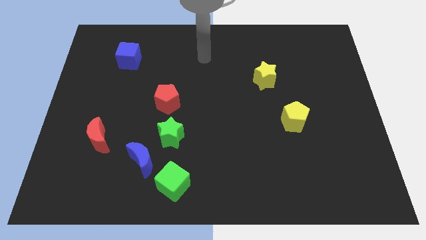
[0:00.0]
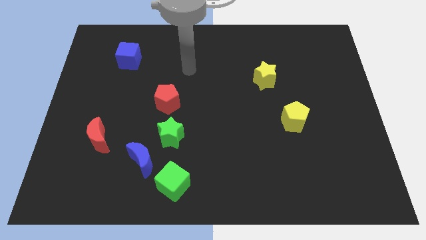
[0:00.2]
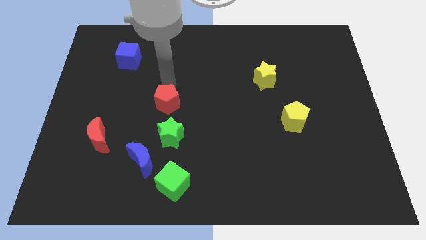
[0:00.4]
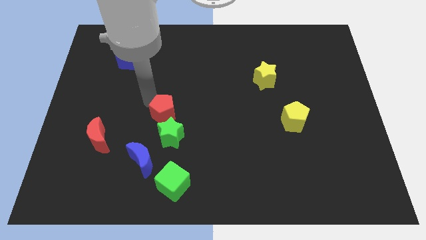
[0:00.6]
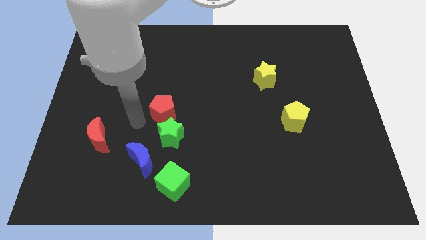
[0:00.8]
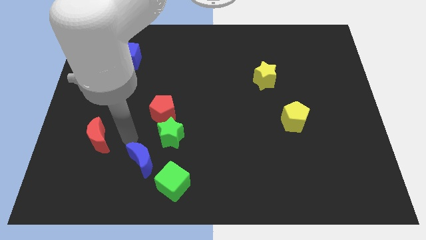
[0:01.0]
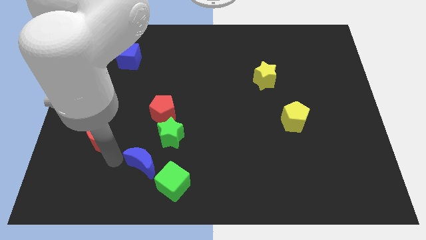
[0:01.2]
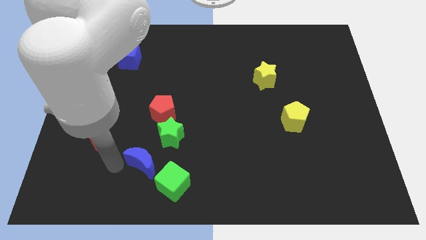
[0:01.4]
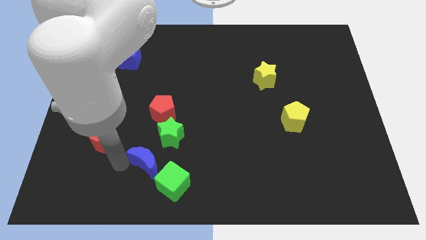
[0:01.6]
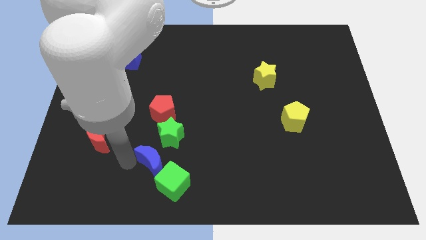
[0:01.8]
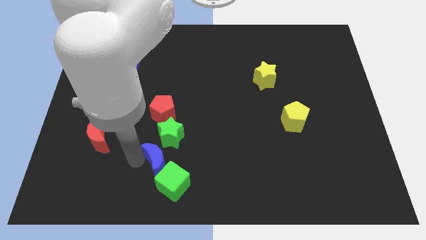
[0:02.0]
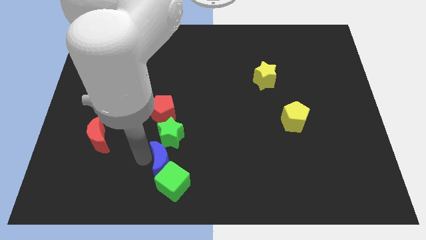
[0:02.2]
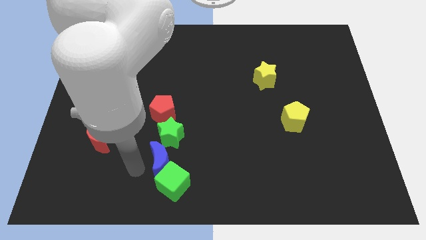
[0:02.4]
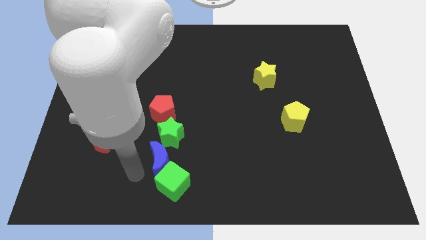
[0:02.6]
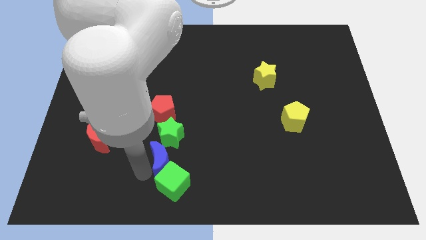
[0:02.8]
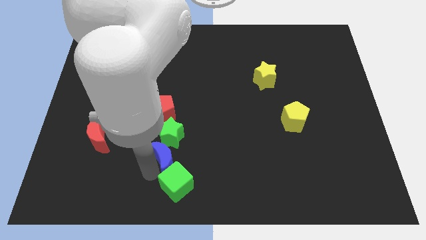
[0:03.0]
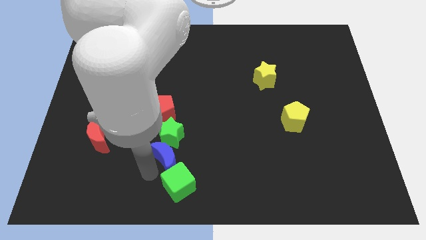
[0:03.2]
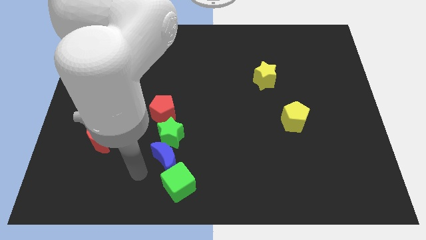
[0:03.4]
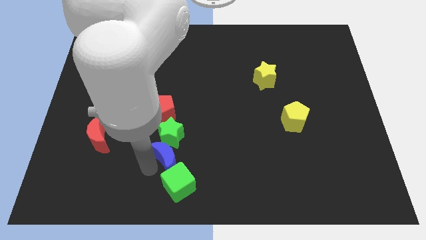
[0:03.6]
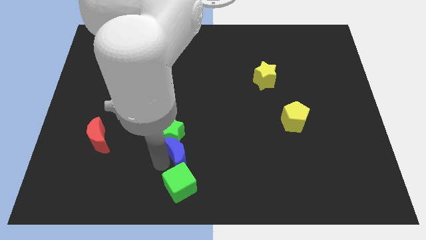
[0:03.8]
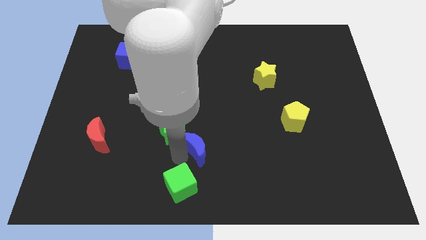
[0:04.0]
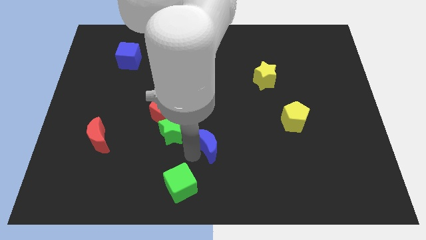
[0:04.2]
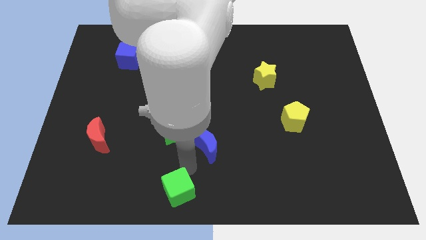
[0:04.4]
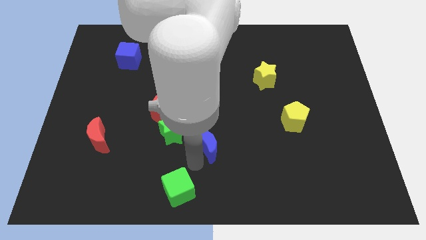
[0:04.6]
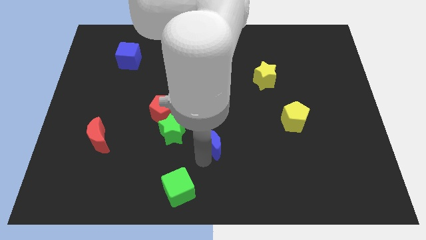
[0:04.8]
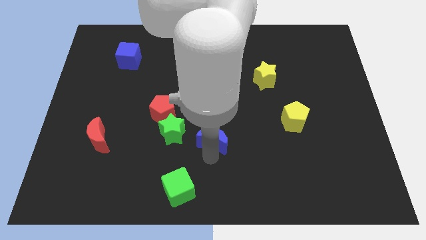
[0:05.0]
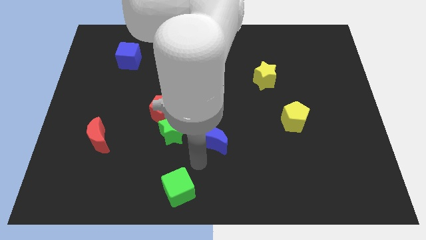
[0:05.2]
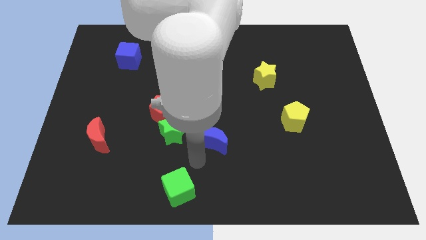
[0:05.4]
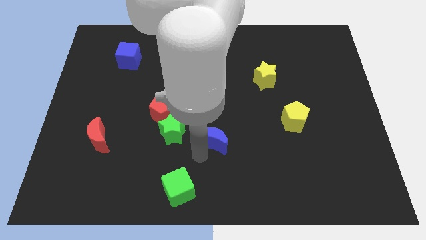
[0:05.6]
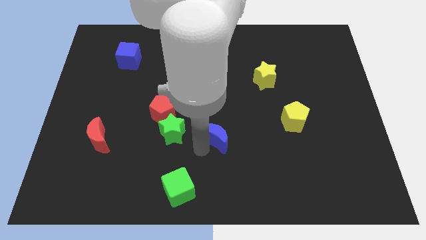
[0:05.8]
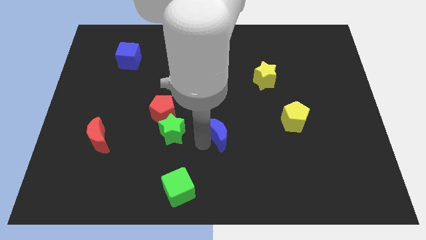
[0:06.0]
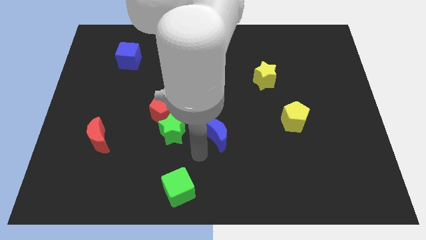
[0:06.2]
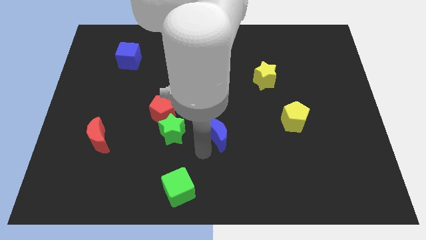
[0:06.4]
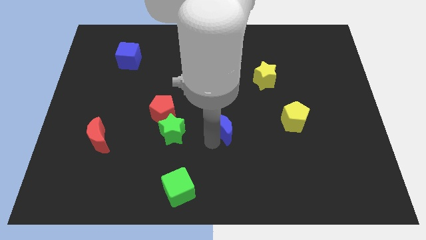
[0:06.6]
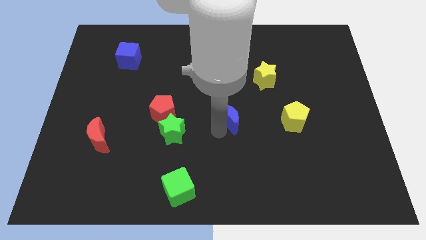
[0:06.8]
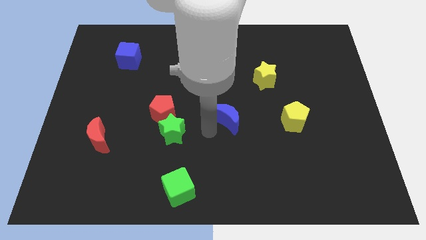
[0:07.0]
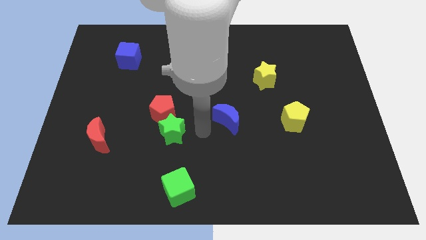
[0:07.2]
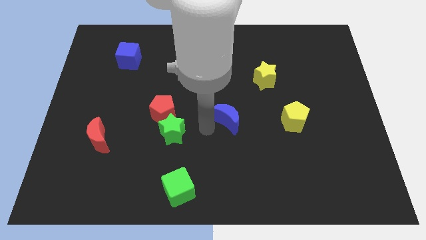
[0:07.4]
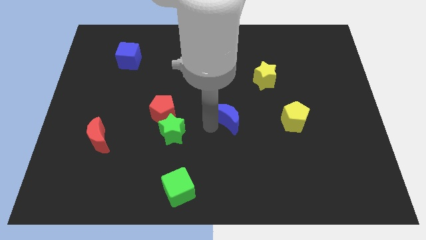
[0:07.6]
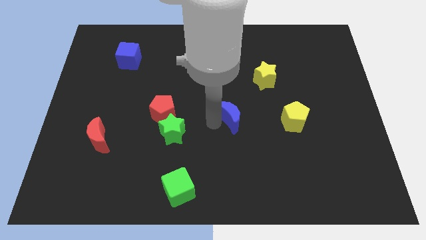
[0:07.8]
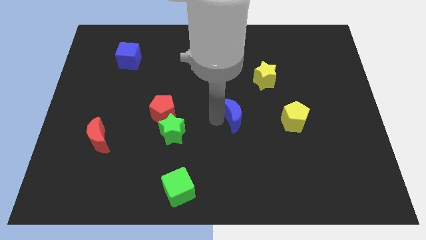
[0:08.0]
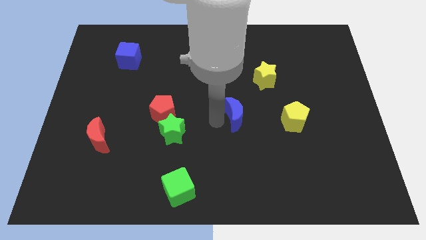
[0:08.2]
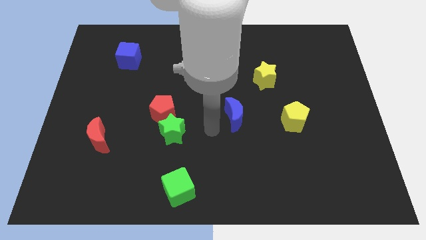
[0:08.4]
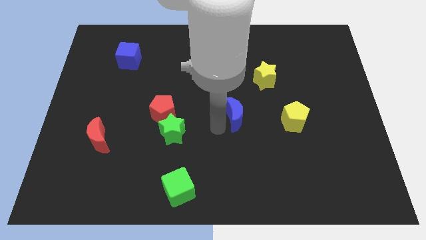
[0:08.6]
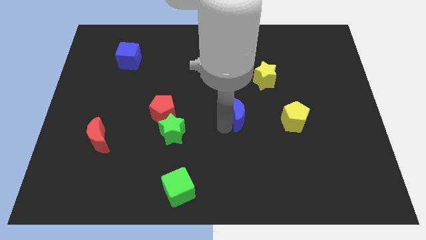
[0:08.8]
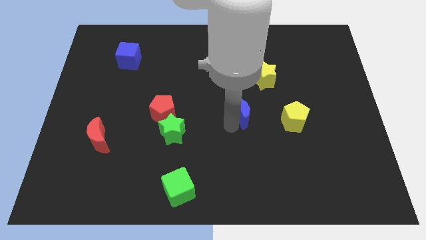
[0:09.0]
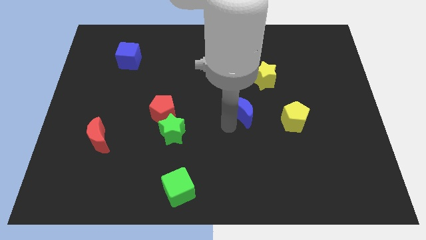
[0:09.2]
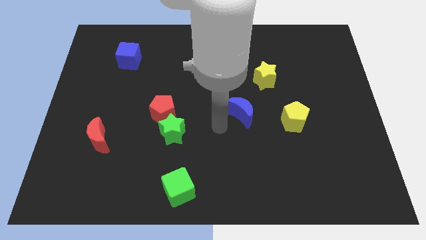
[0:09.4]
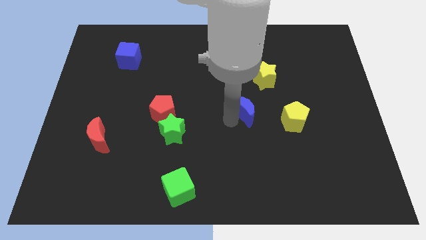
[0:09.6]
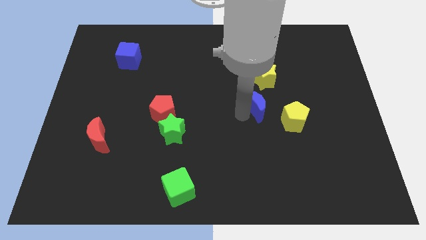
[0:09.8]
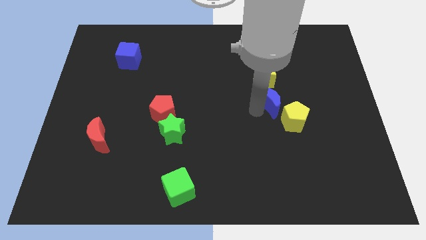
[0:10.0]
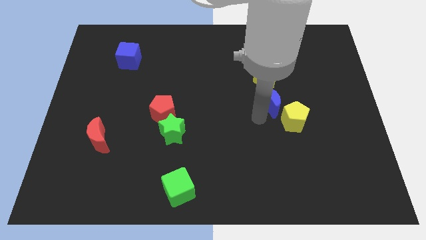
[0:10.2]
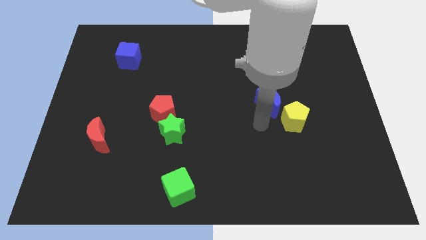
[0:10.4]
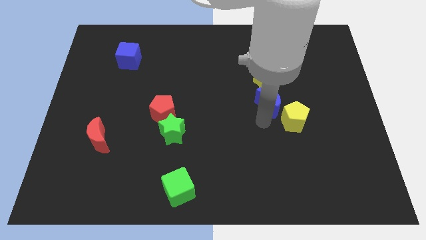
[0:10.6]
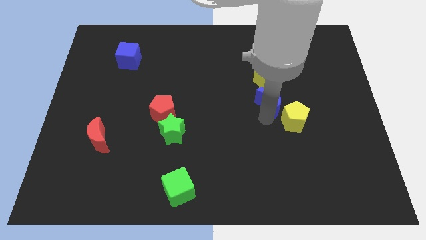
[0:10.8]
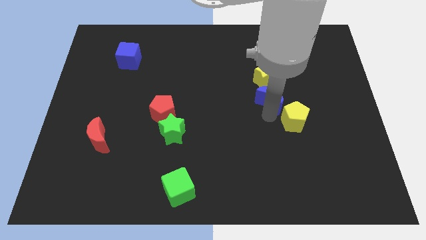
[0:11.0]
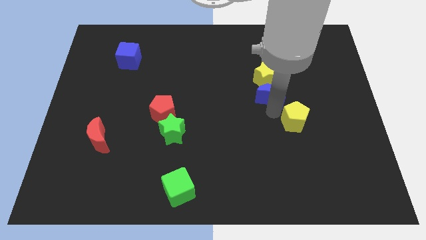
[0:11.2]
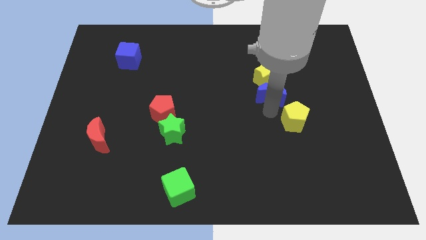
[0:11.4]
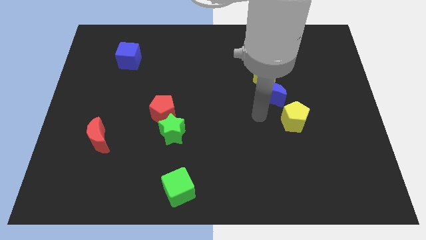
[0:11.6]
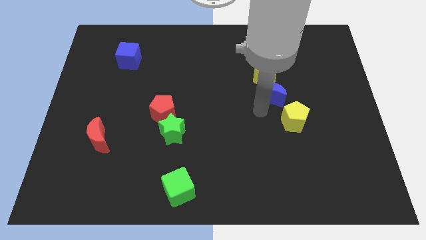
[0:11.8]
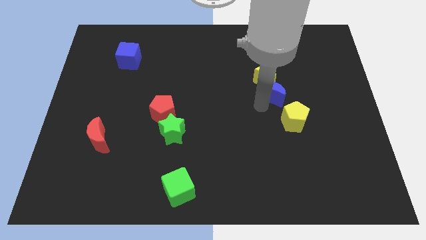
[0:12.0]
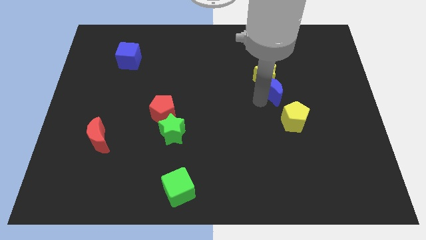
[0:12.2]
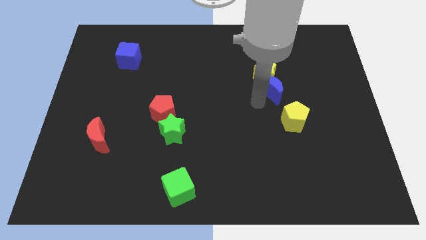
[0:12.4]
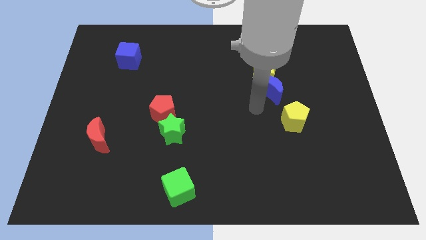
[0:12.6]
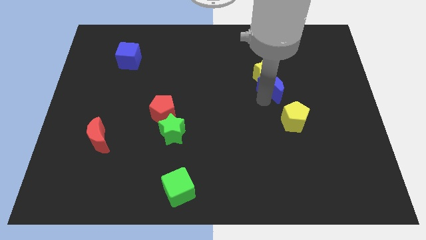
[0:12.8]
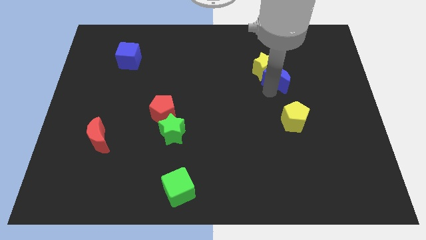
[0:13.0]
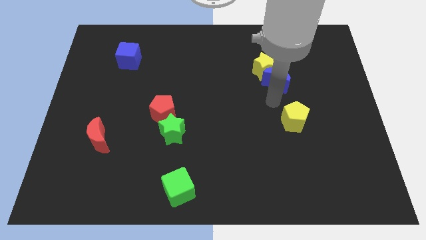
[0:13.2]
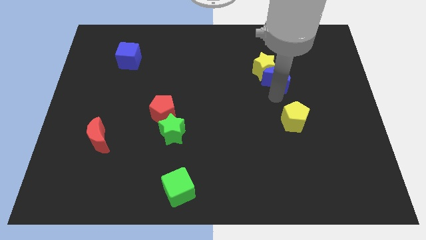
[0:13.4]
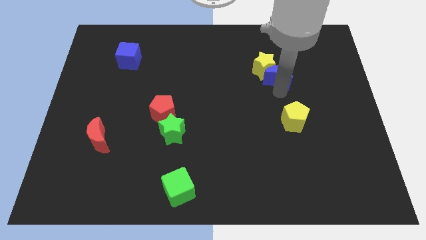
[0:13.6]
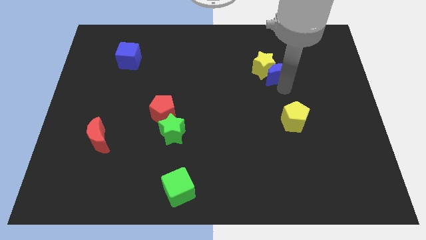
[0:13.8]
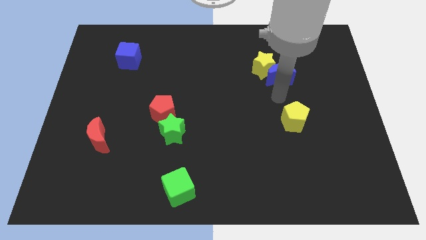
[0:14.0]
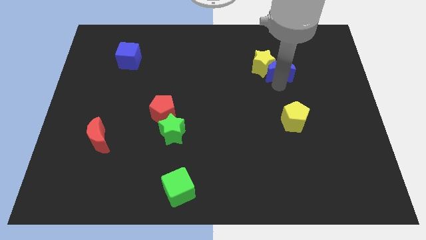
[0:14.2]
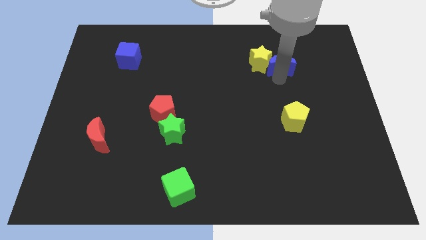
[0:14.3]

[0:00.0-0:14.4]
push the blue moon to the top right of the yellow star

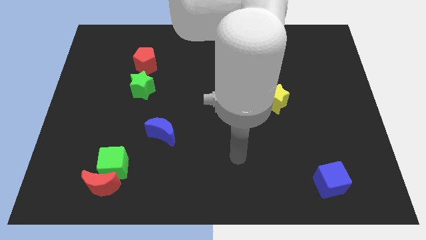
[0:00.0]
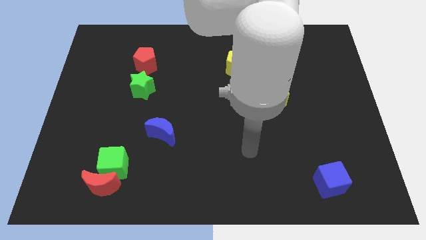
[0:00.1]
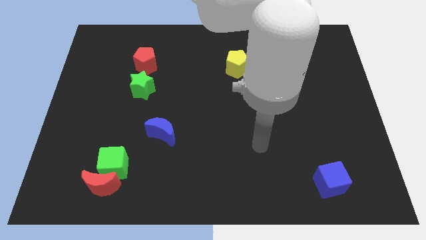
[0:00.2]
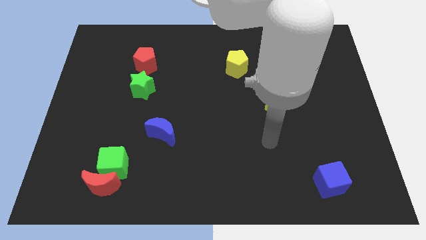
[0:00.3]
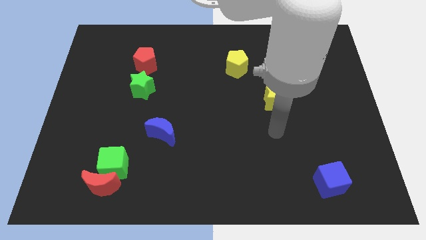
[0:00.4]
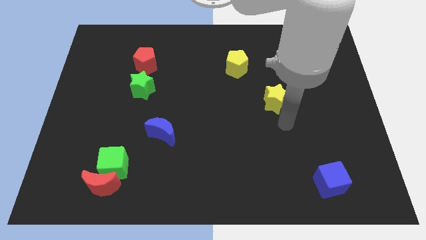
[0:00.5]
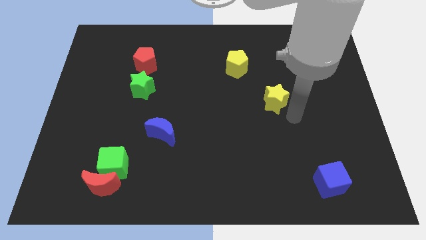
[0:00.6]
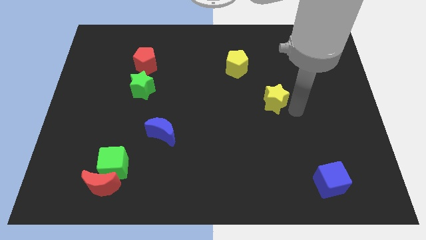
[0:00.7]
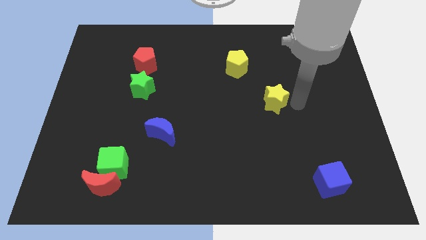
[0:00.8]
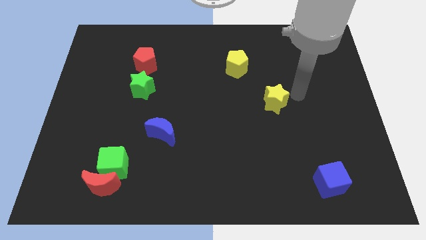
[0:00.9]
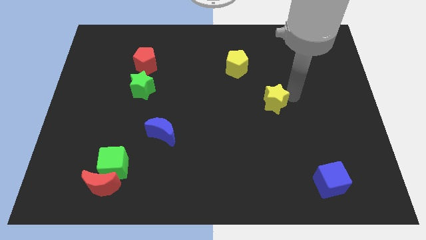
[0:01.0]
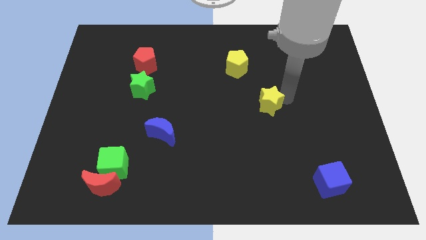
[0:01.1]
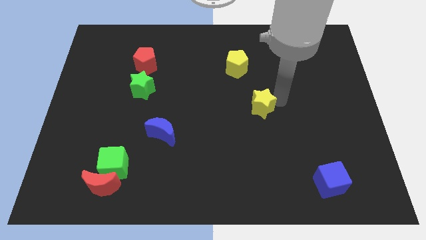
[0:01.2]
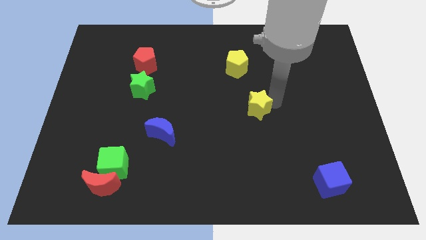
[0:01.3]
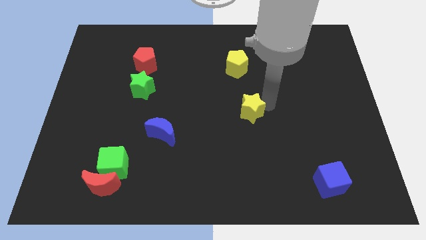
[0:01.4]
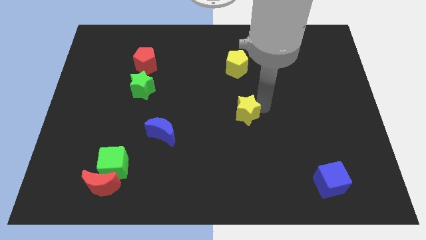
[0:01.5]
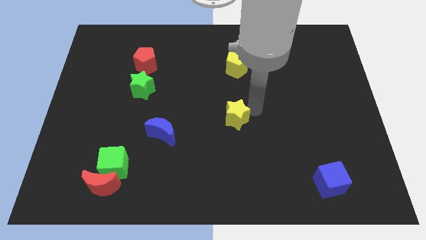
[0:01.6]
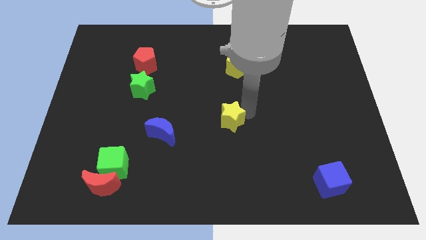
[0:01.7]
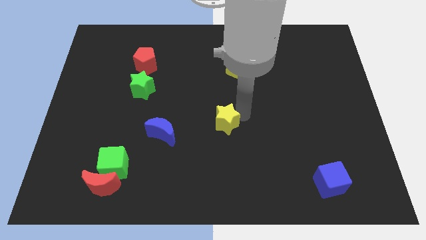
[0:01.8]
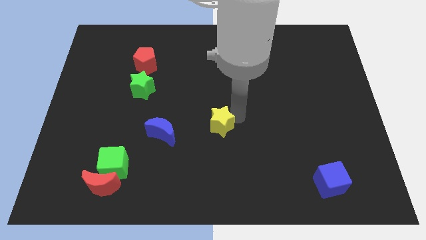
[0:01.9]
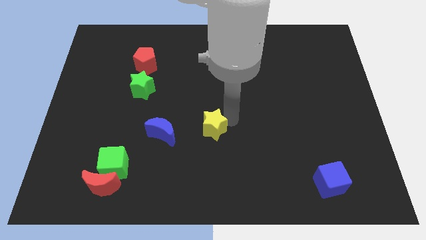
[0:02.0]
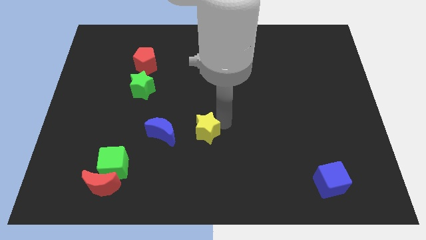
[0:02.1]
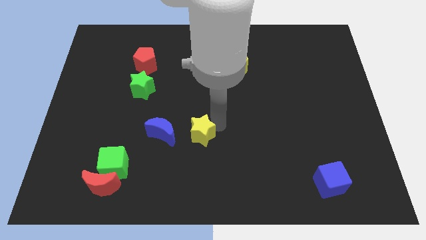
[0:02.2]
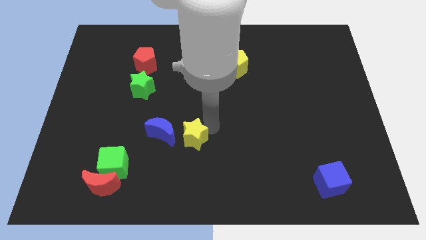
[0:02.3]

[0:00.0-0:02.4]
slide the yellow star diagonally down and to the right of the blue moon
